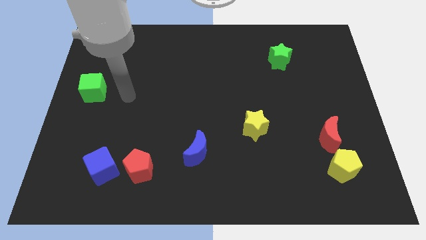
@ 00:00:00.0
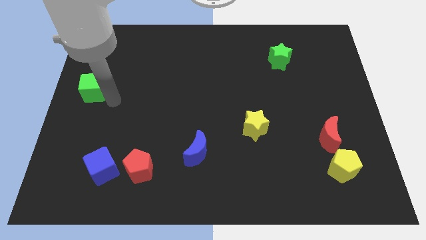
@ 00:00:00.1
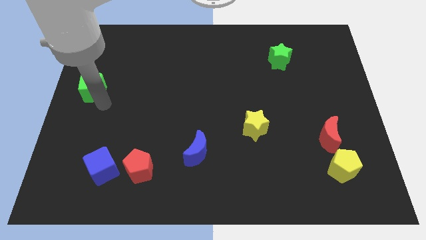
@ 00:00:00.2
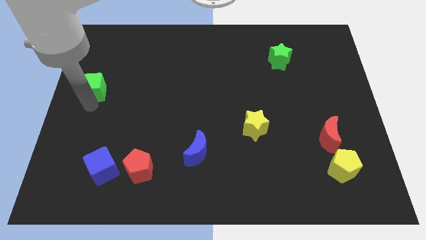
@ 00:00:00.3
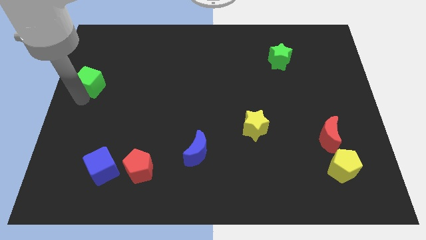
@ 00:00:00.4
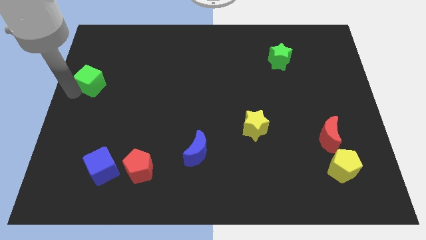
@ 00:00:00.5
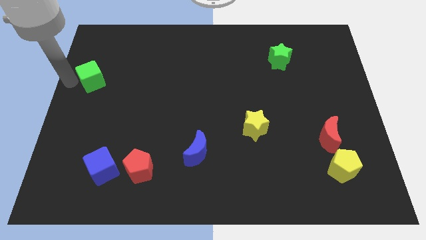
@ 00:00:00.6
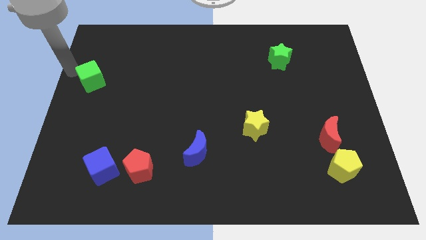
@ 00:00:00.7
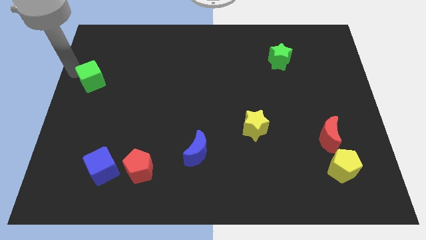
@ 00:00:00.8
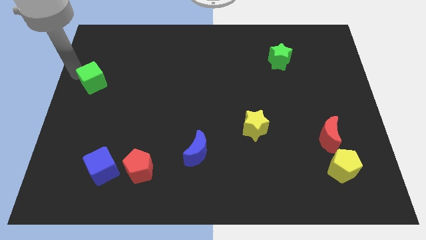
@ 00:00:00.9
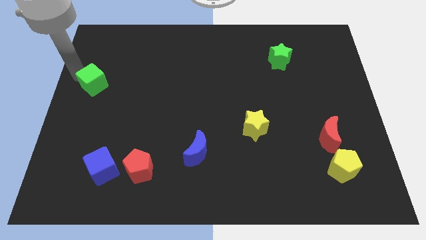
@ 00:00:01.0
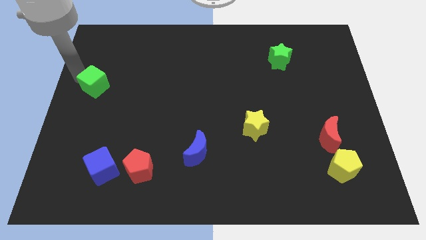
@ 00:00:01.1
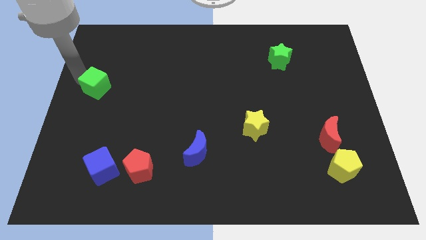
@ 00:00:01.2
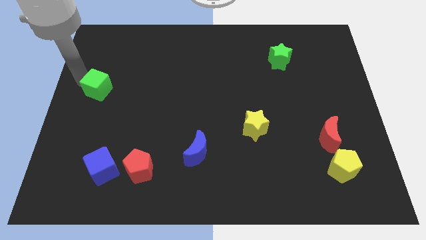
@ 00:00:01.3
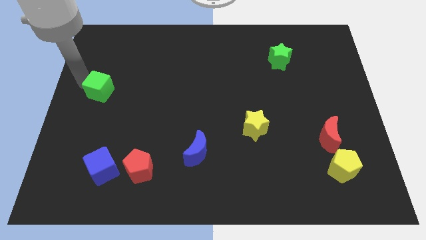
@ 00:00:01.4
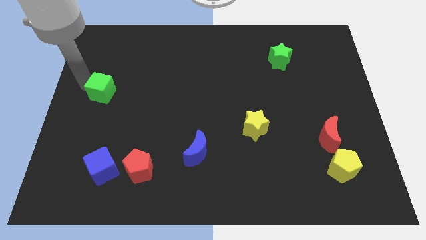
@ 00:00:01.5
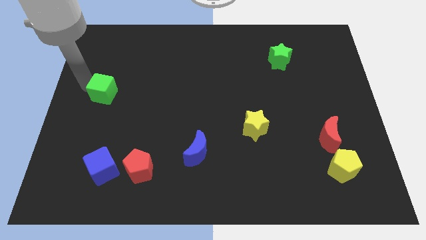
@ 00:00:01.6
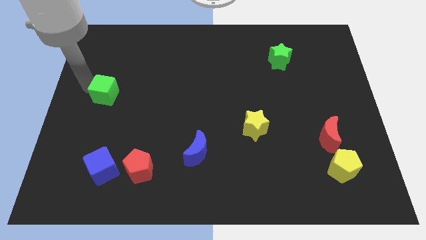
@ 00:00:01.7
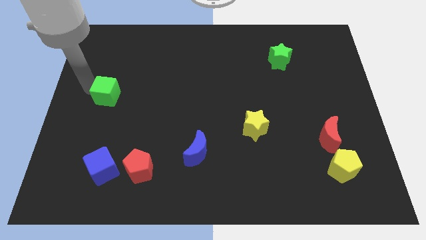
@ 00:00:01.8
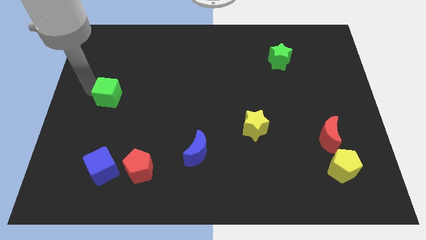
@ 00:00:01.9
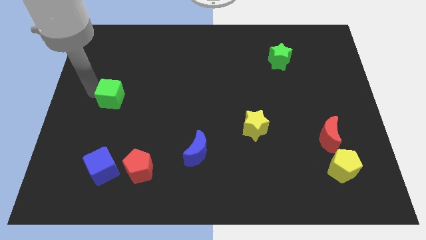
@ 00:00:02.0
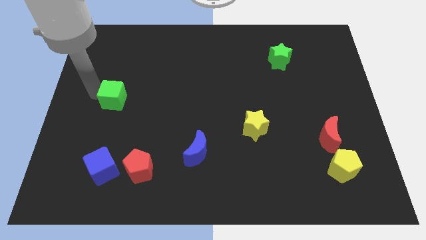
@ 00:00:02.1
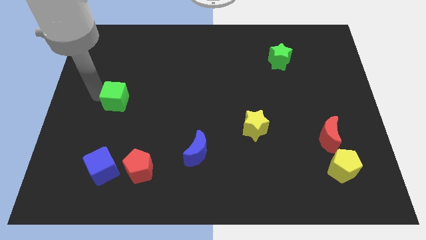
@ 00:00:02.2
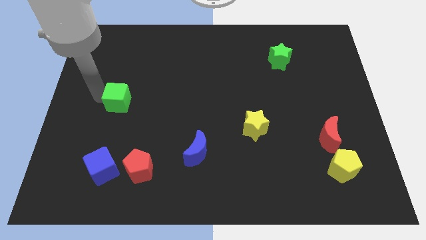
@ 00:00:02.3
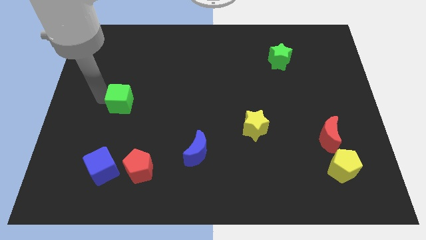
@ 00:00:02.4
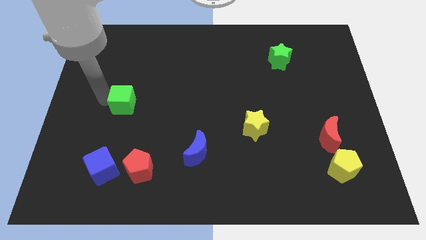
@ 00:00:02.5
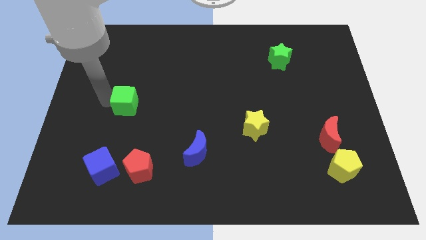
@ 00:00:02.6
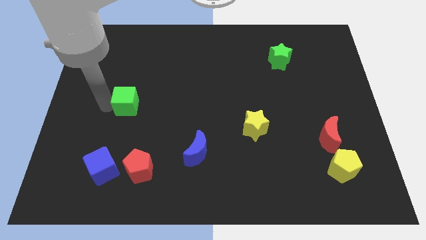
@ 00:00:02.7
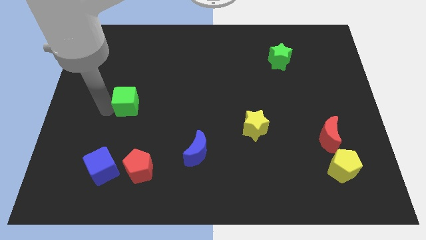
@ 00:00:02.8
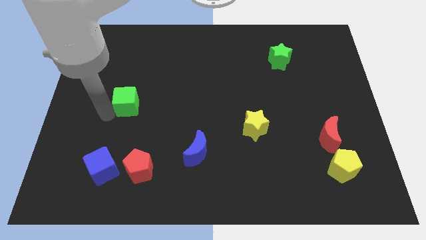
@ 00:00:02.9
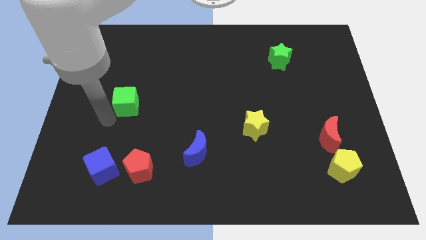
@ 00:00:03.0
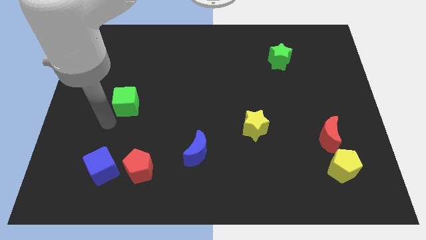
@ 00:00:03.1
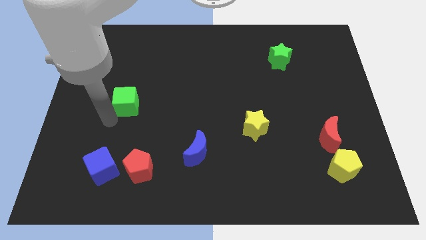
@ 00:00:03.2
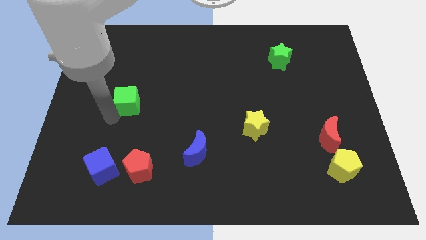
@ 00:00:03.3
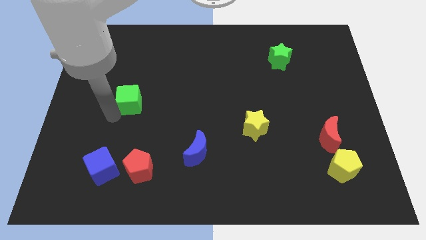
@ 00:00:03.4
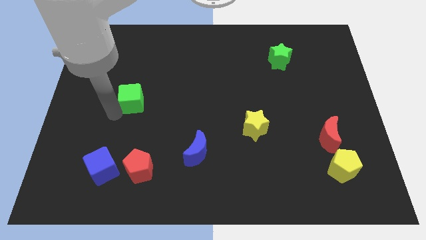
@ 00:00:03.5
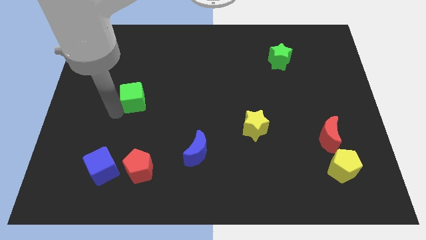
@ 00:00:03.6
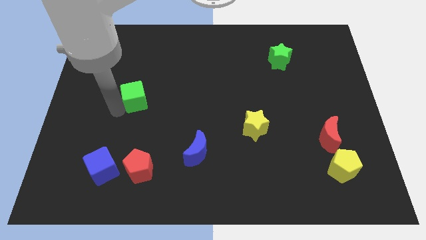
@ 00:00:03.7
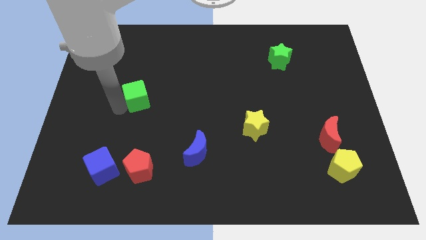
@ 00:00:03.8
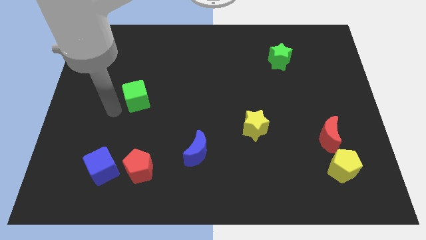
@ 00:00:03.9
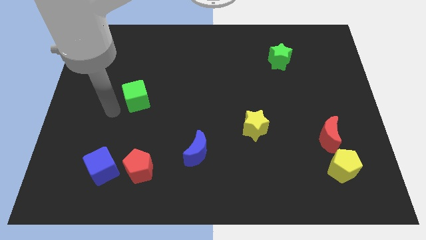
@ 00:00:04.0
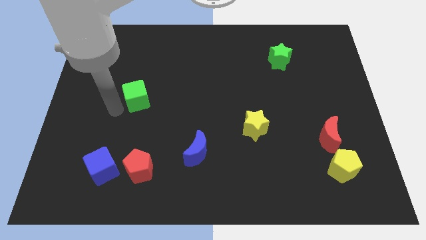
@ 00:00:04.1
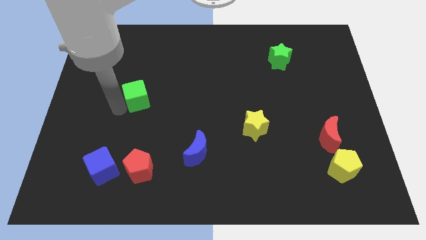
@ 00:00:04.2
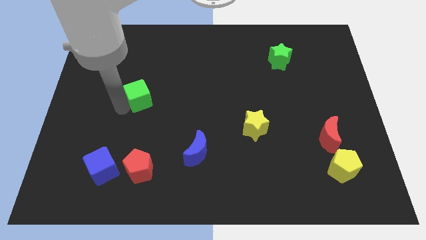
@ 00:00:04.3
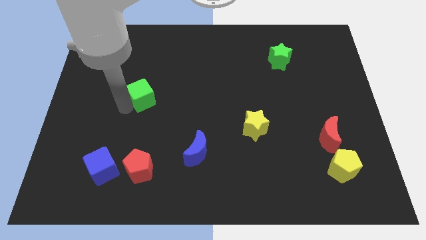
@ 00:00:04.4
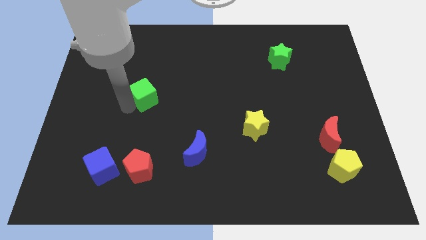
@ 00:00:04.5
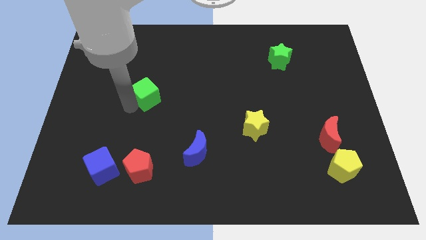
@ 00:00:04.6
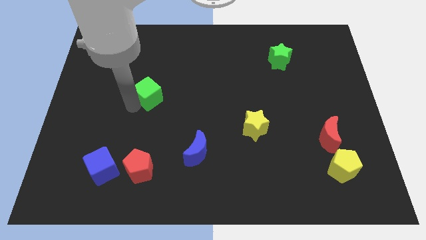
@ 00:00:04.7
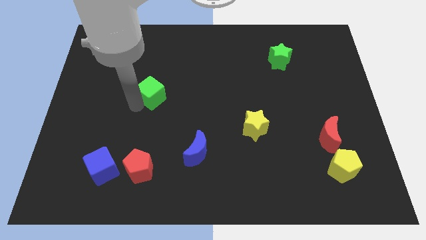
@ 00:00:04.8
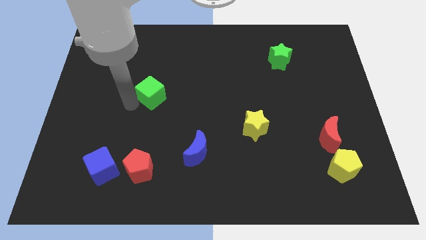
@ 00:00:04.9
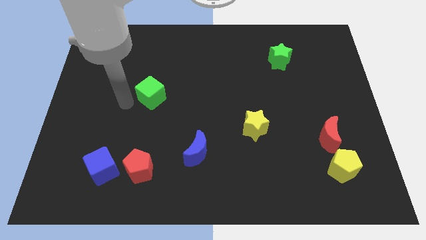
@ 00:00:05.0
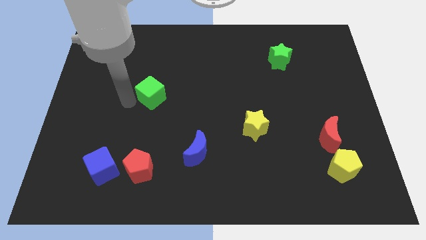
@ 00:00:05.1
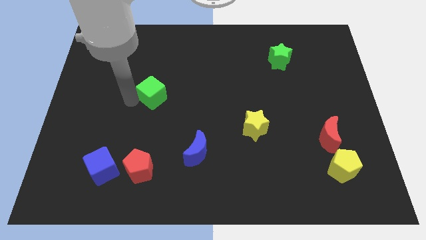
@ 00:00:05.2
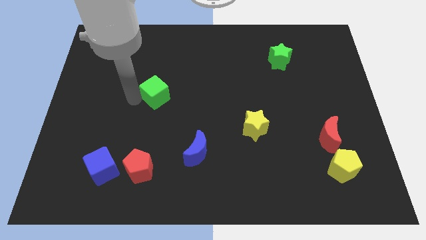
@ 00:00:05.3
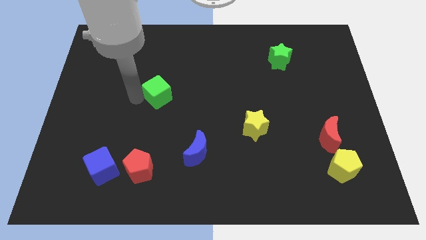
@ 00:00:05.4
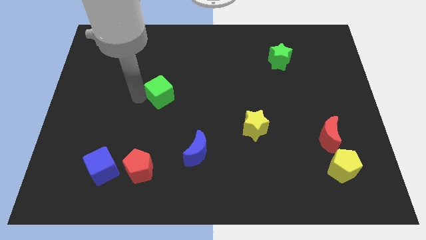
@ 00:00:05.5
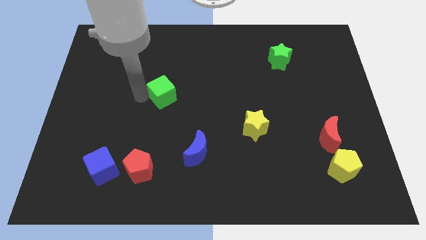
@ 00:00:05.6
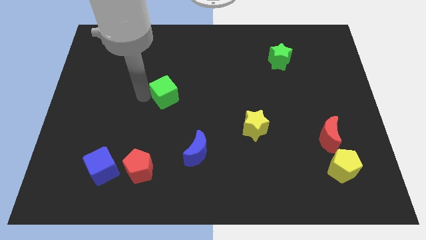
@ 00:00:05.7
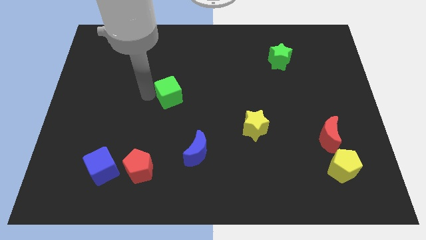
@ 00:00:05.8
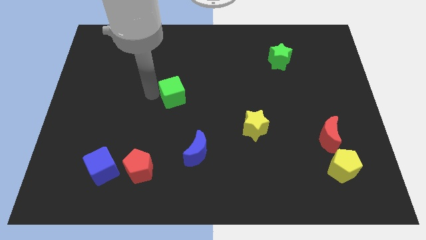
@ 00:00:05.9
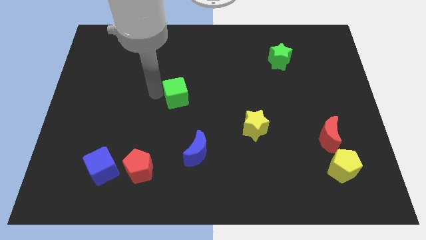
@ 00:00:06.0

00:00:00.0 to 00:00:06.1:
slide the green cube to the right

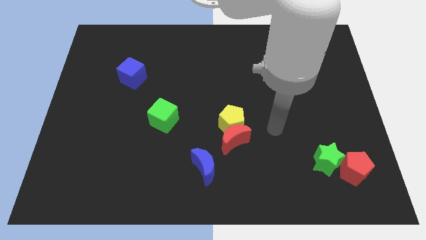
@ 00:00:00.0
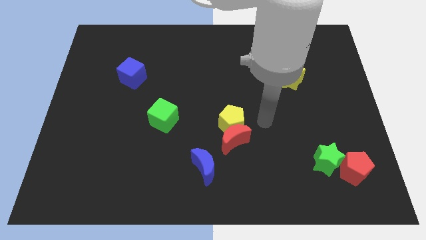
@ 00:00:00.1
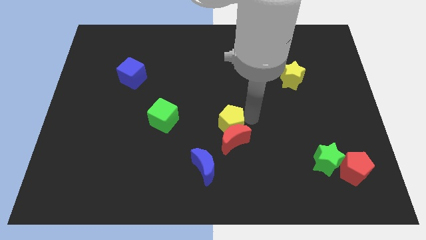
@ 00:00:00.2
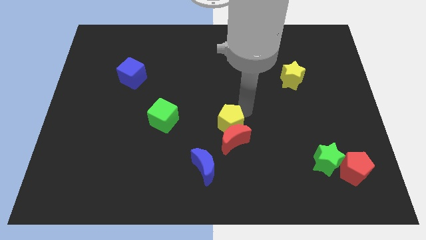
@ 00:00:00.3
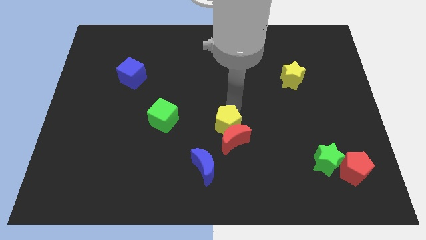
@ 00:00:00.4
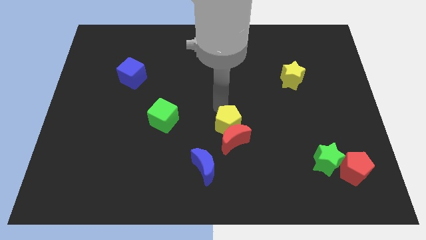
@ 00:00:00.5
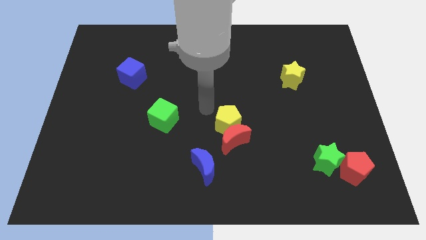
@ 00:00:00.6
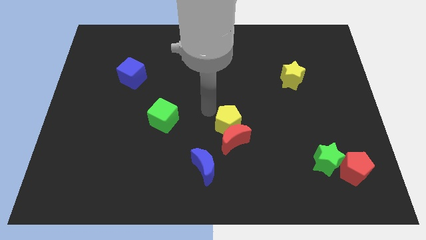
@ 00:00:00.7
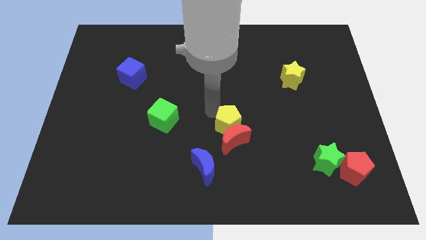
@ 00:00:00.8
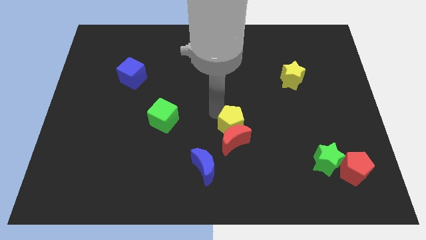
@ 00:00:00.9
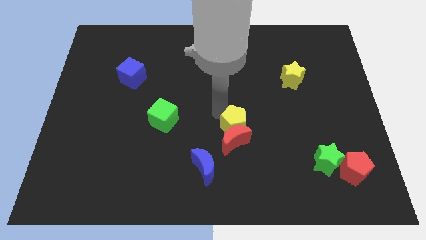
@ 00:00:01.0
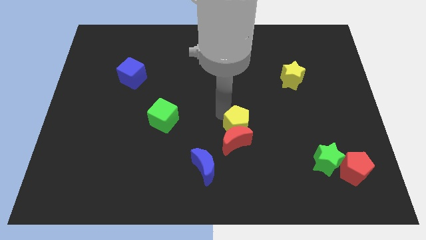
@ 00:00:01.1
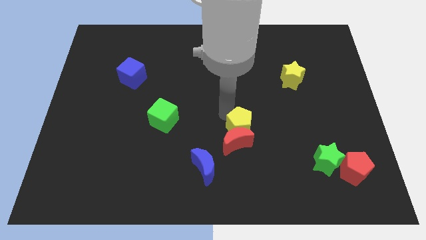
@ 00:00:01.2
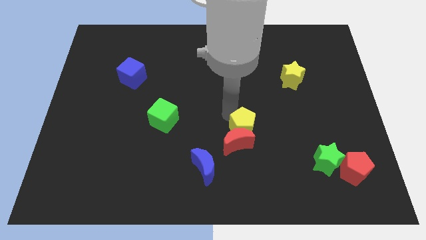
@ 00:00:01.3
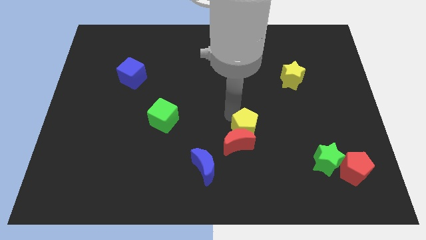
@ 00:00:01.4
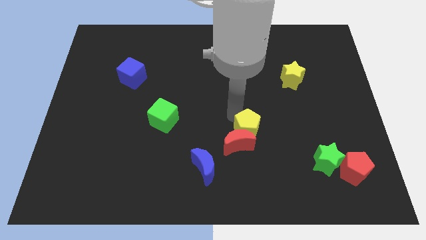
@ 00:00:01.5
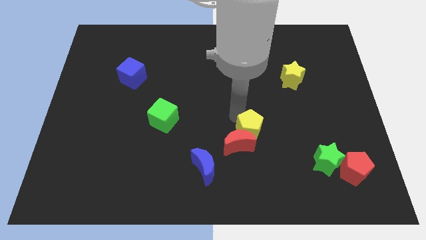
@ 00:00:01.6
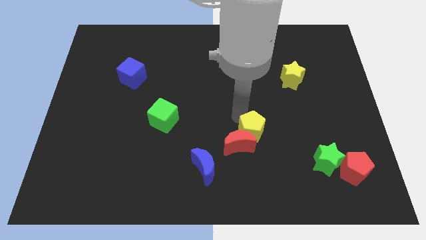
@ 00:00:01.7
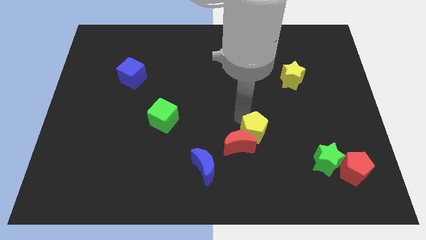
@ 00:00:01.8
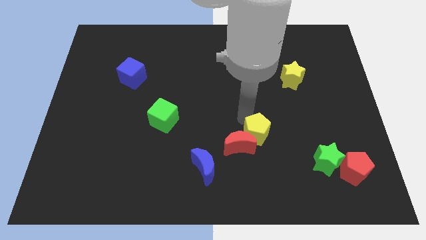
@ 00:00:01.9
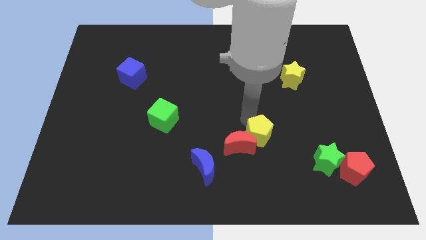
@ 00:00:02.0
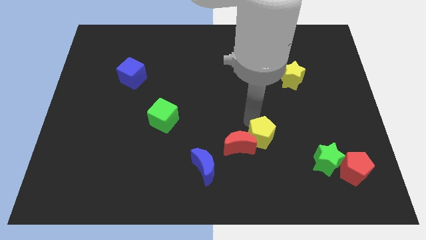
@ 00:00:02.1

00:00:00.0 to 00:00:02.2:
push the yellow pentagon down and to the right somewhat
